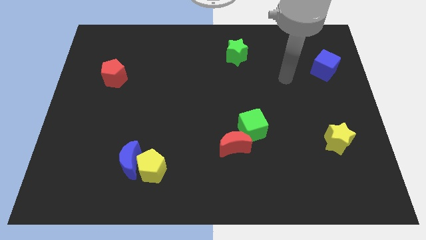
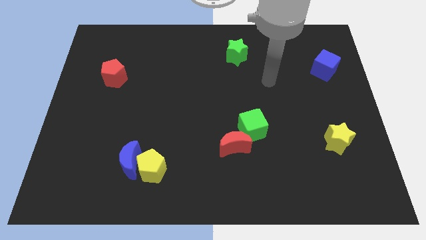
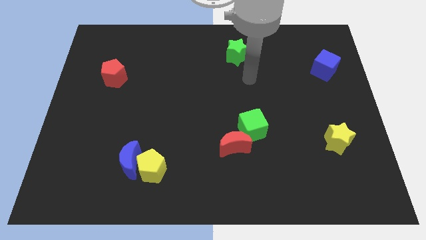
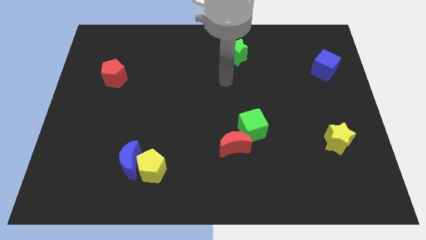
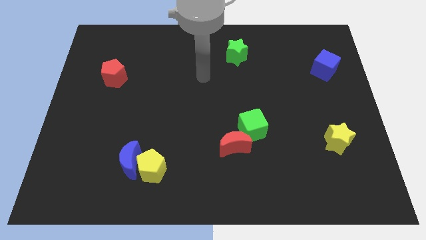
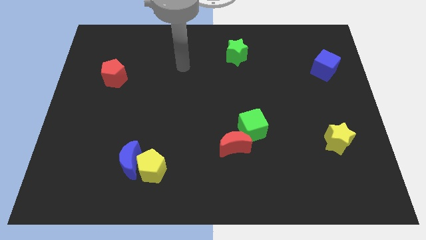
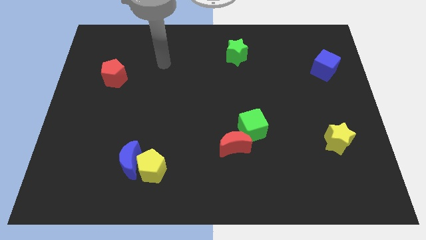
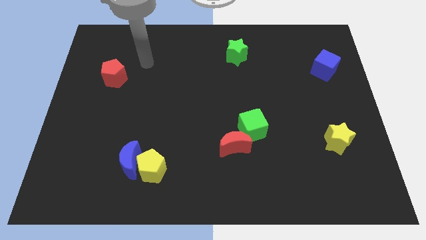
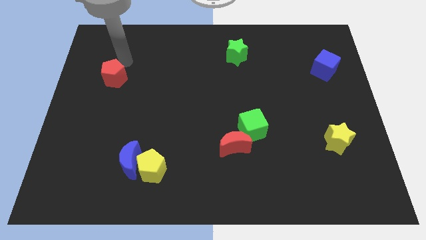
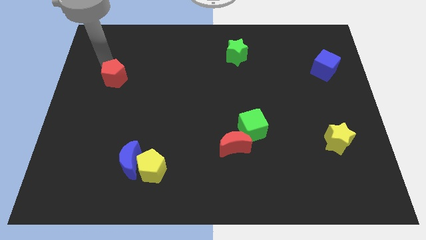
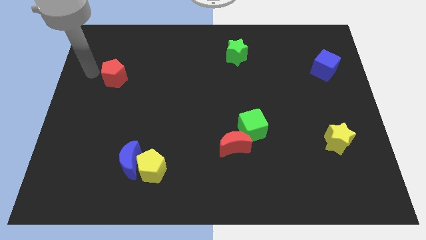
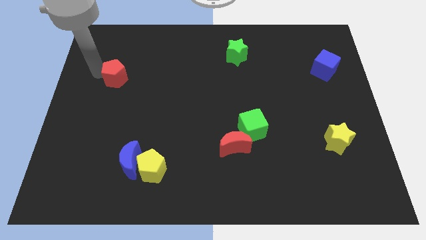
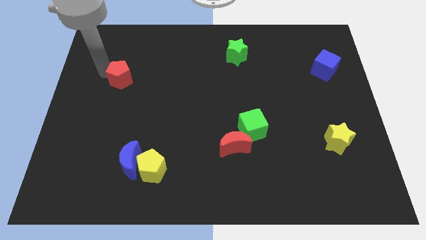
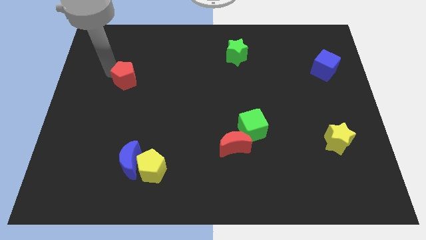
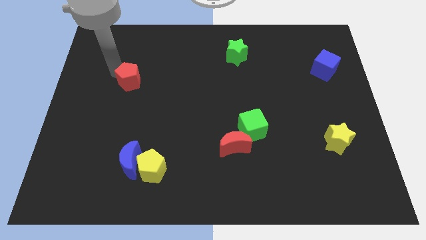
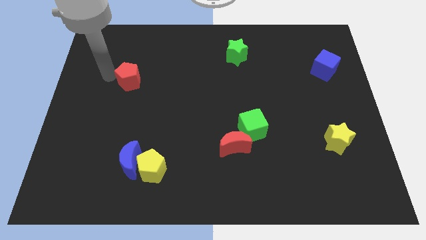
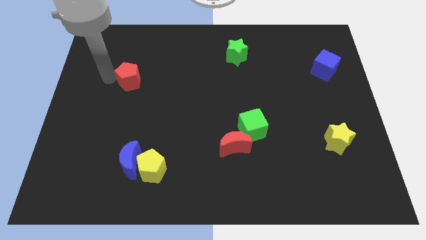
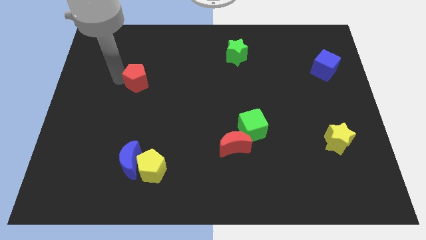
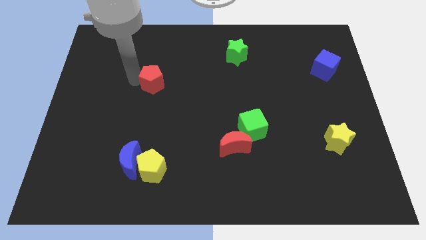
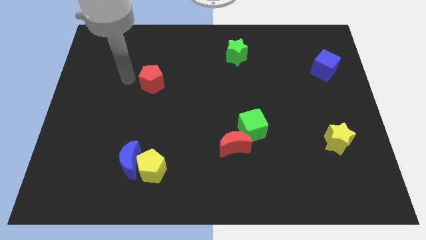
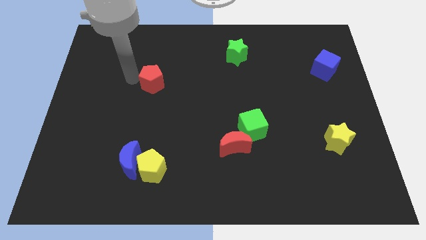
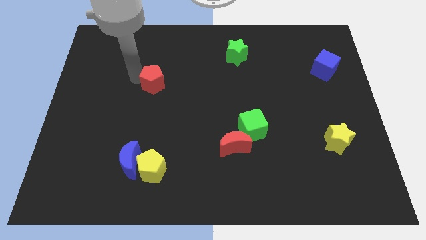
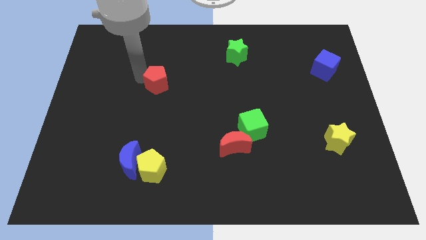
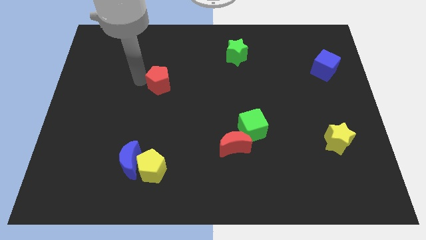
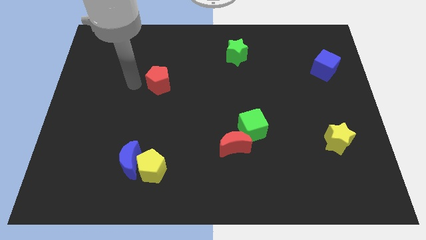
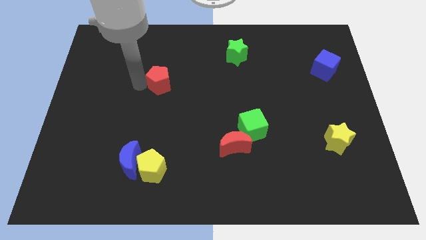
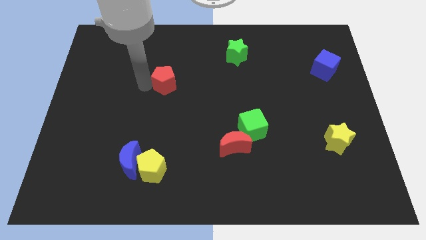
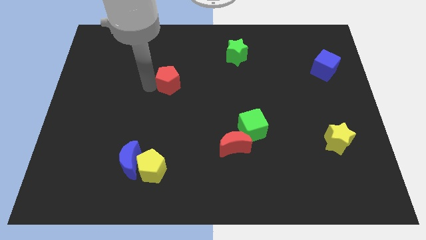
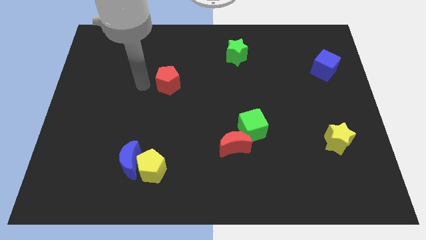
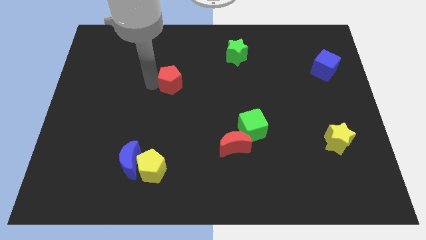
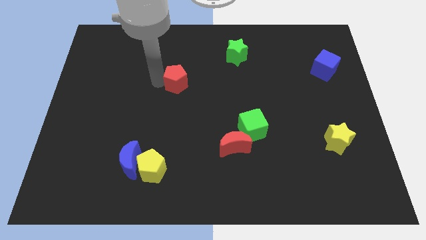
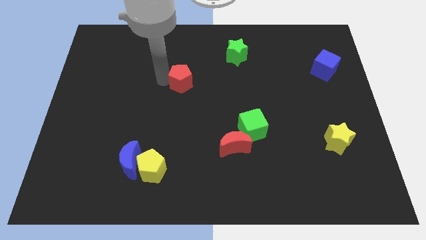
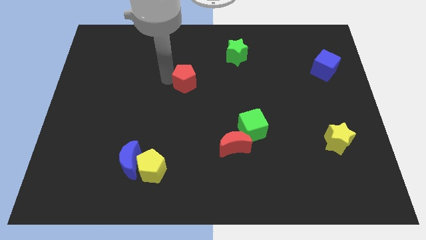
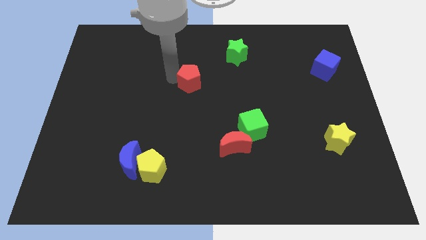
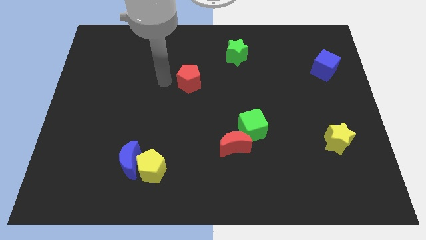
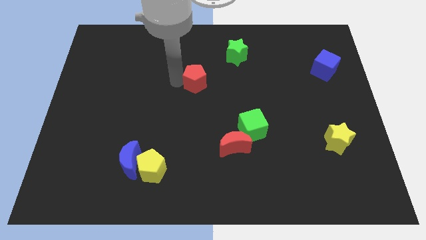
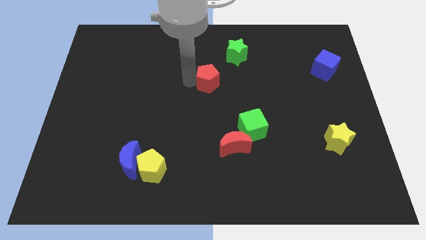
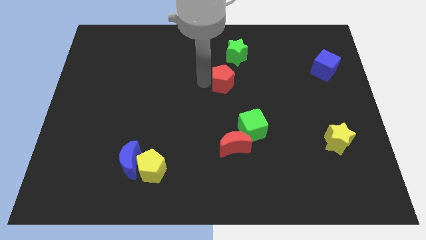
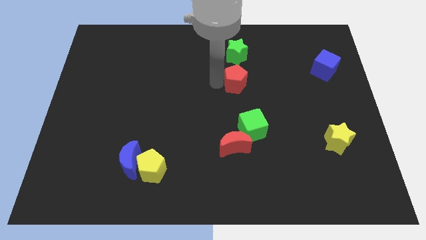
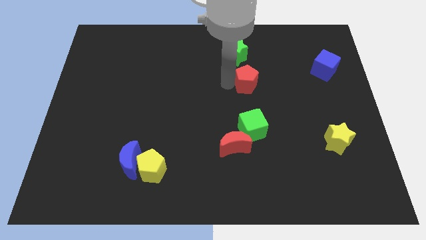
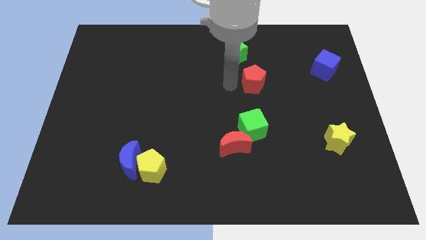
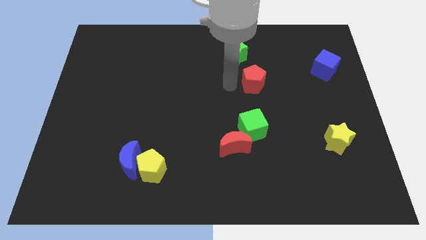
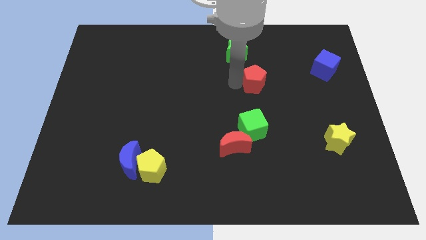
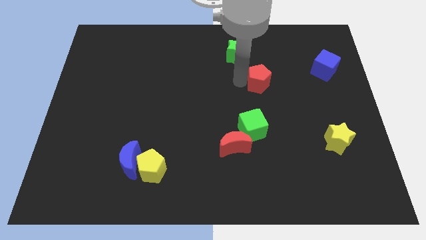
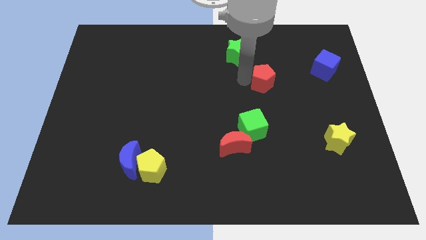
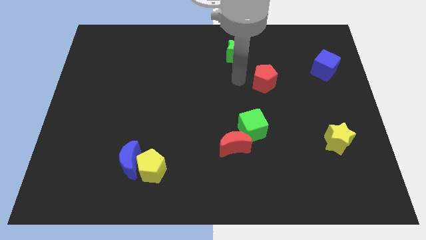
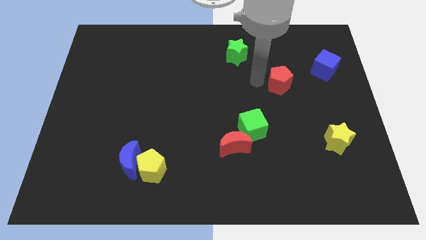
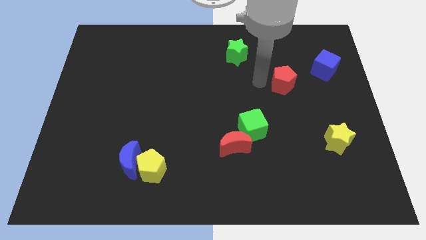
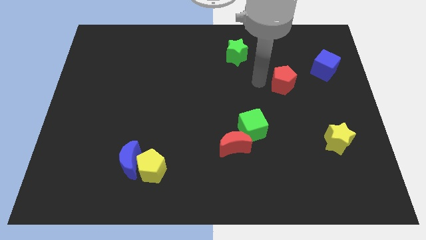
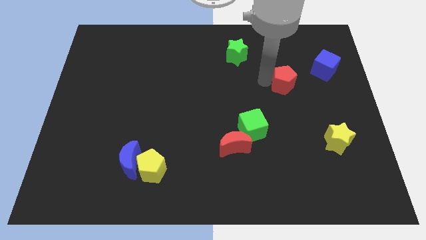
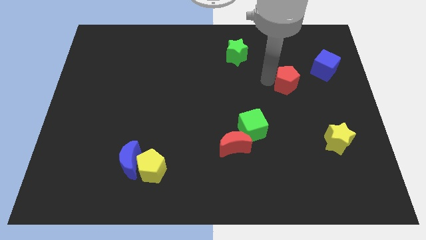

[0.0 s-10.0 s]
push the red pentagon diagonally down and to the left of the blue cube

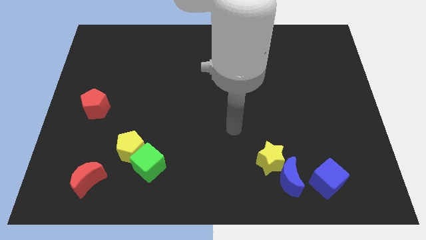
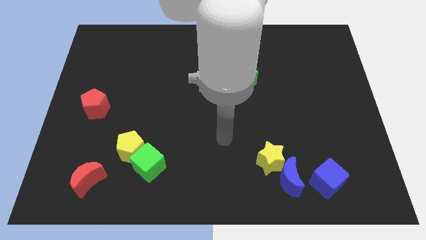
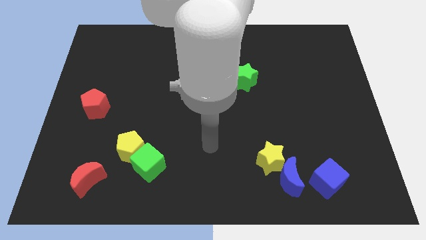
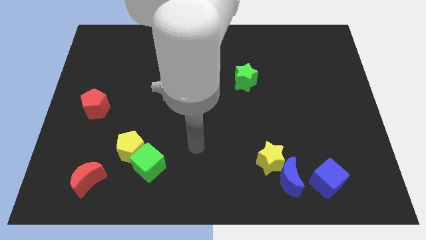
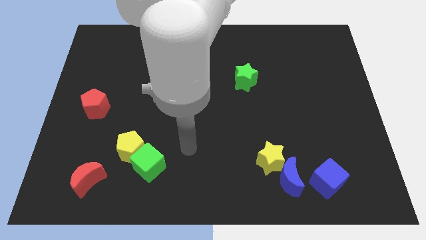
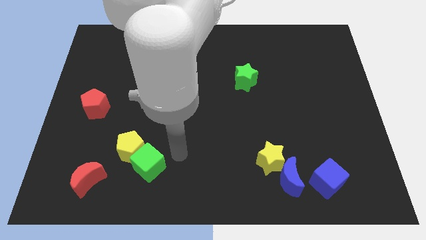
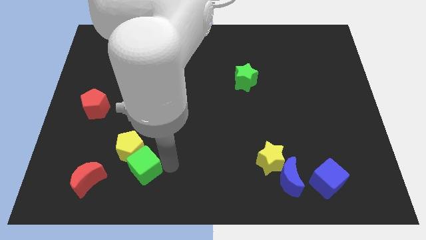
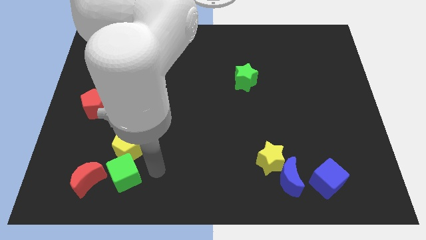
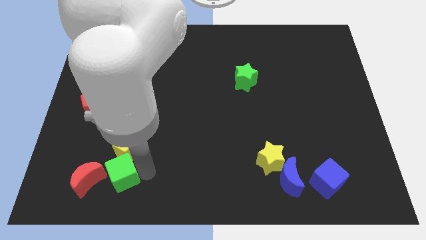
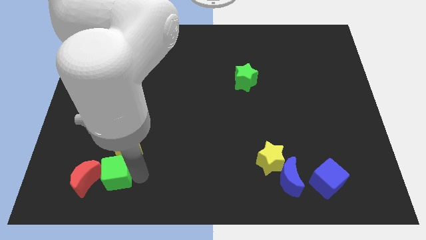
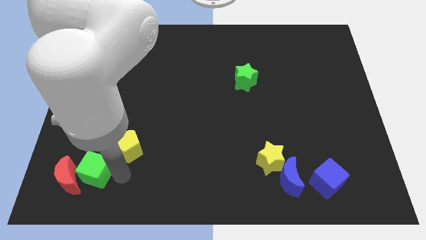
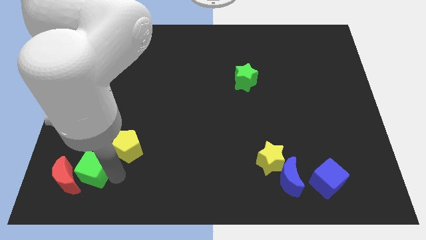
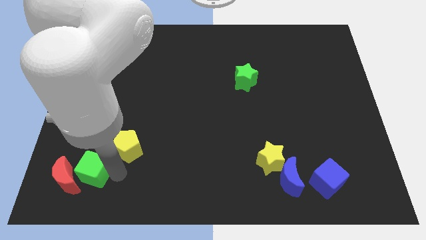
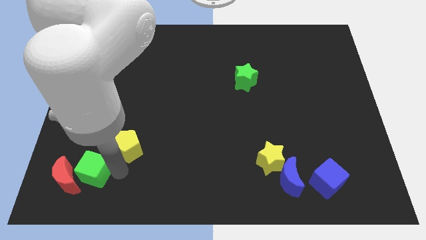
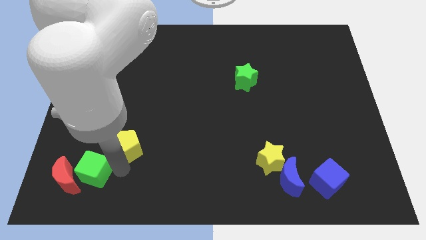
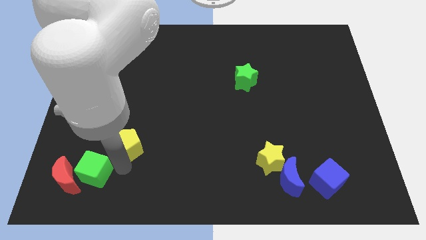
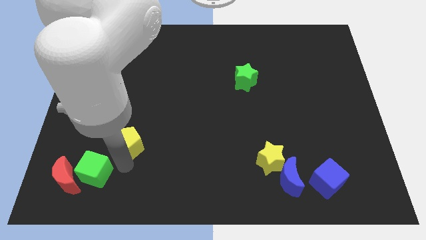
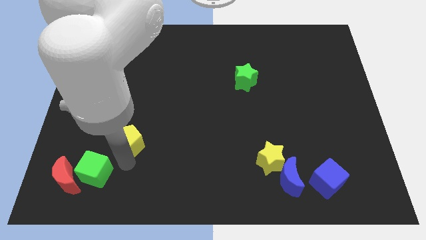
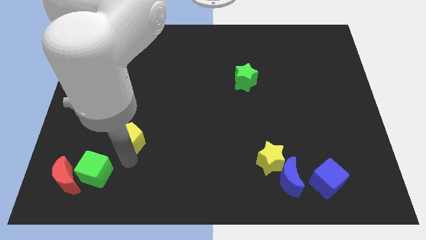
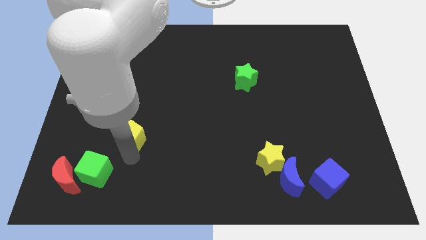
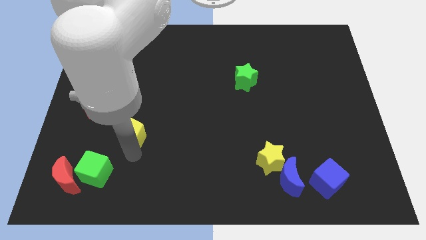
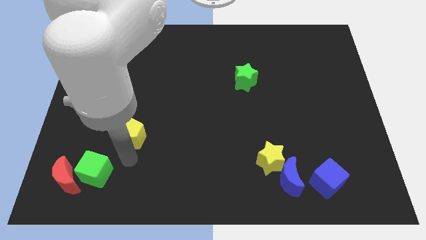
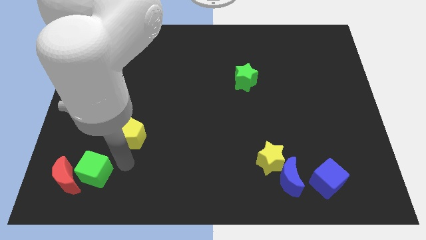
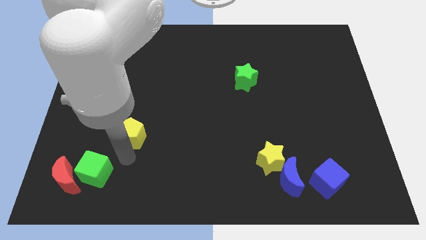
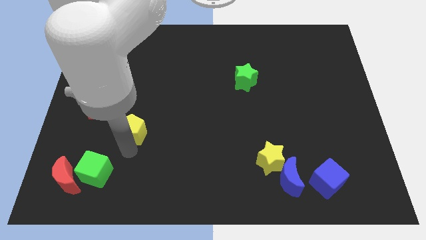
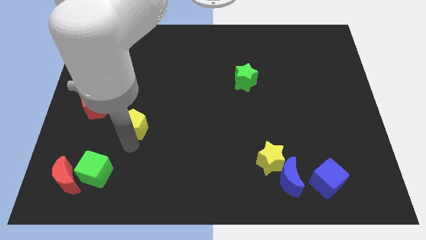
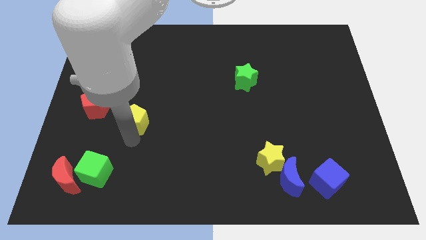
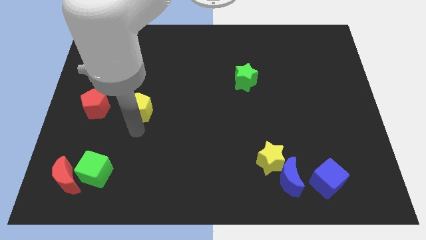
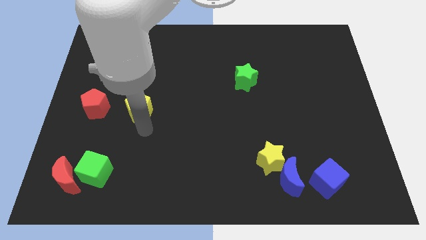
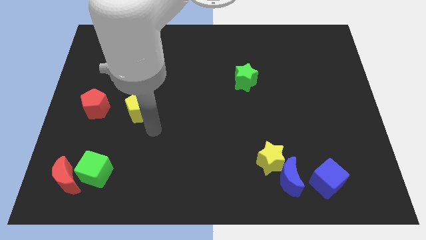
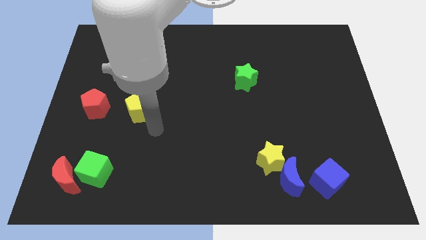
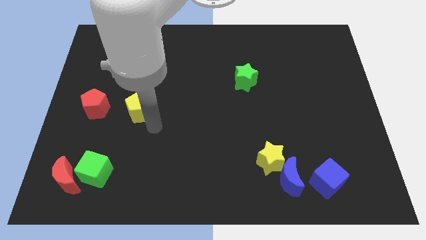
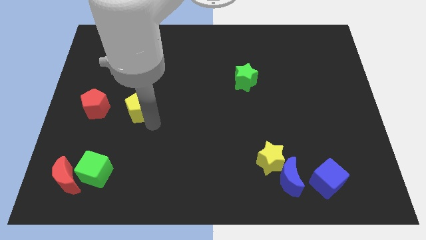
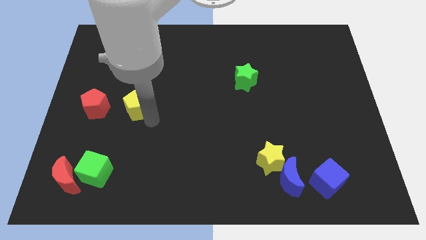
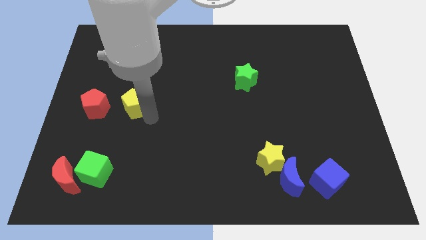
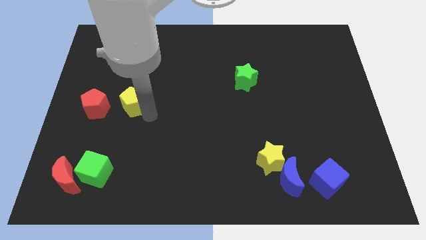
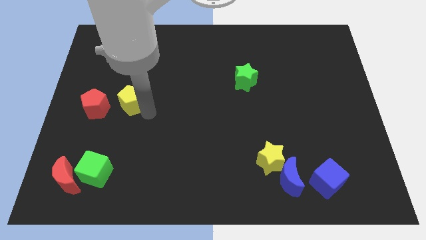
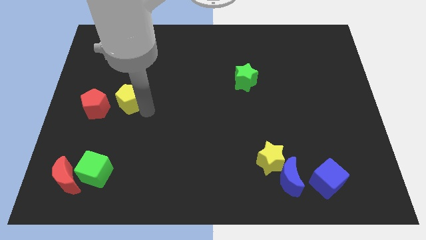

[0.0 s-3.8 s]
slide the yellow pentagon to the top right of the red pentagon
